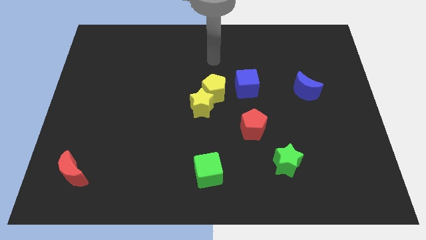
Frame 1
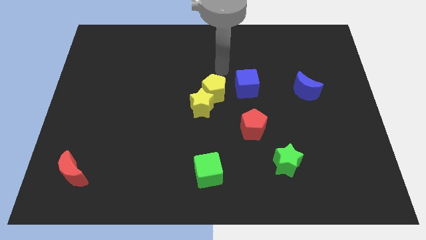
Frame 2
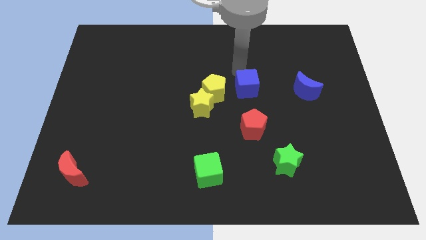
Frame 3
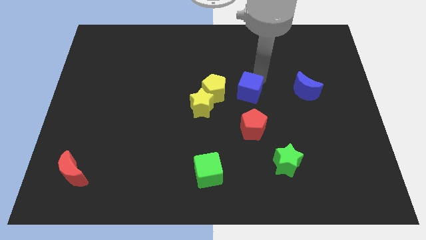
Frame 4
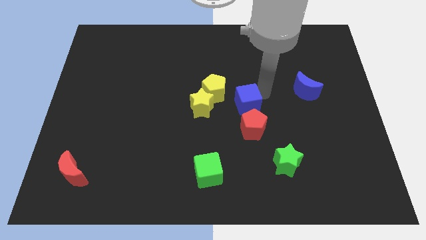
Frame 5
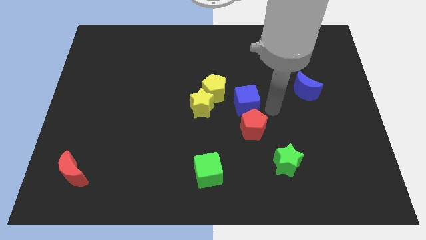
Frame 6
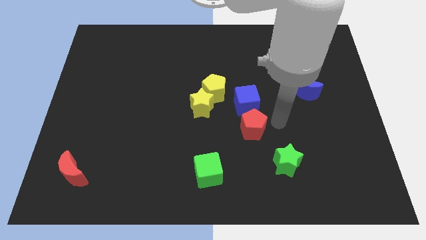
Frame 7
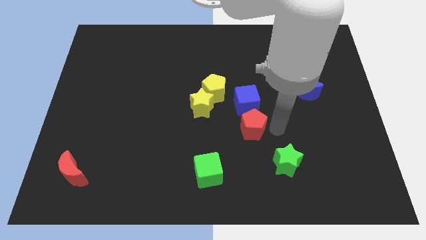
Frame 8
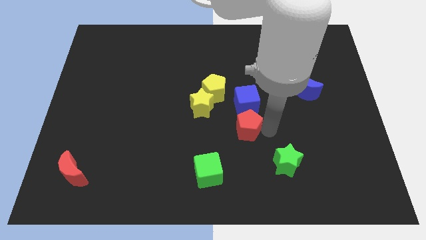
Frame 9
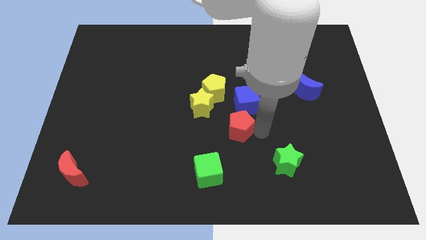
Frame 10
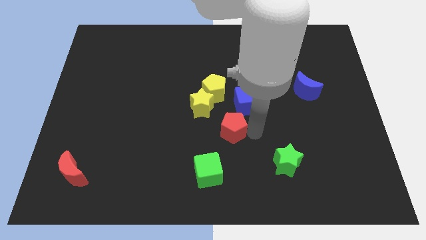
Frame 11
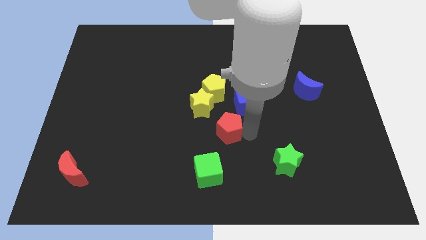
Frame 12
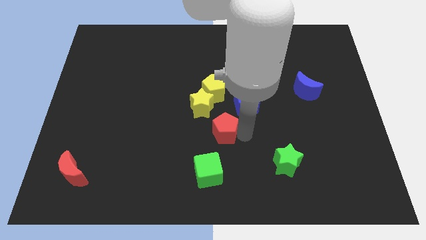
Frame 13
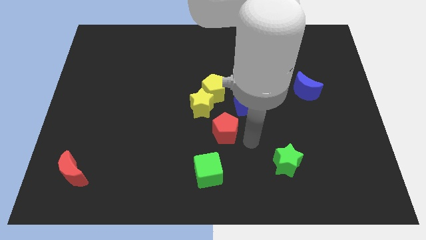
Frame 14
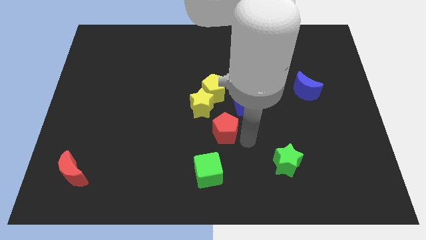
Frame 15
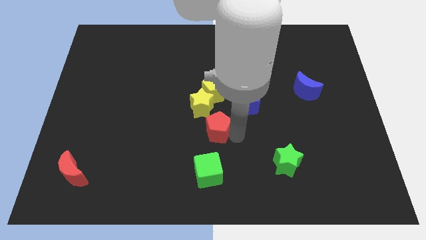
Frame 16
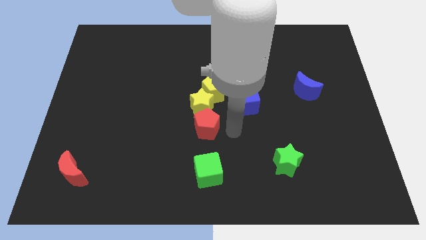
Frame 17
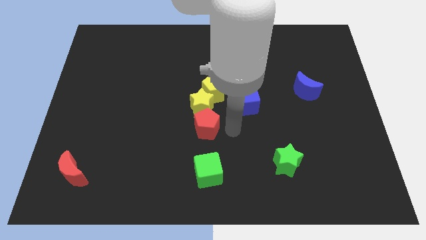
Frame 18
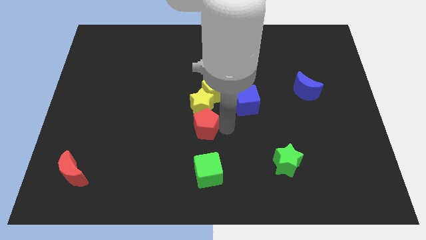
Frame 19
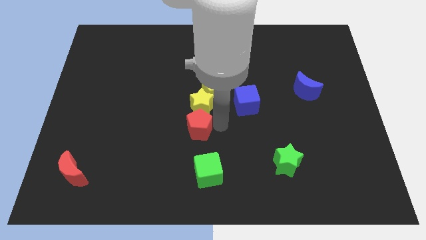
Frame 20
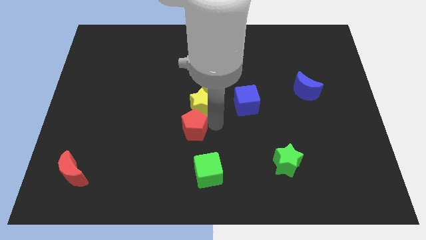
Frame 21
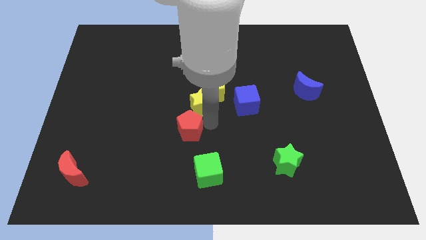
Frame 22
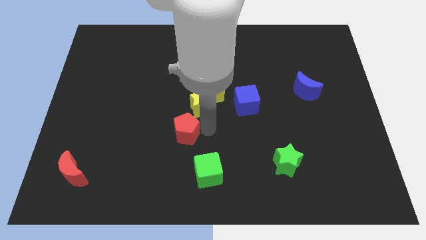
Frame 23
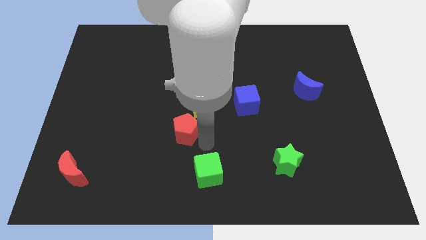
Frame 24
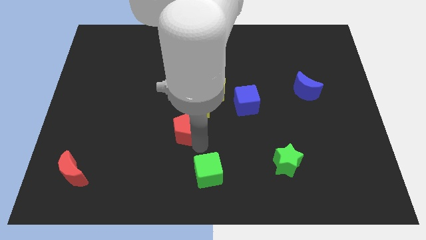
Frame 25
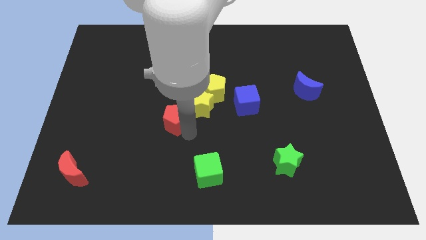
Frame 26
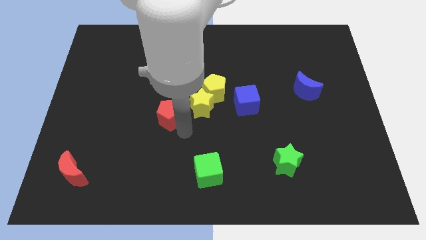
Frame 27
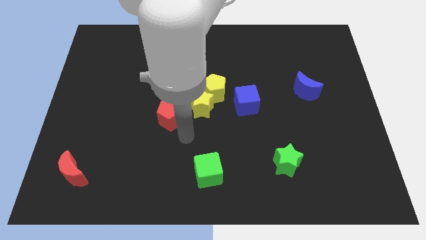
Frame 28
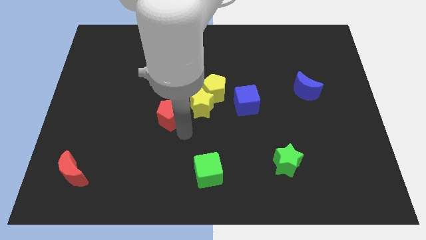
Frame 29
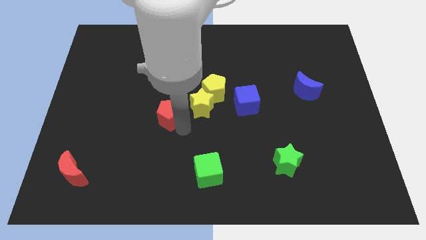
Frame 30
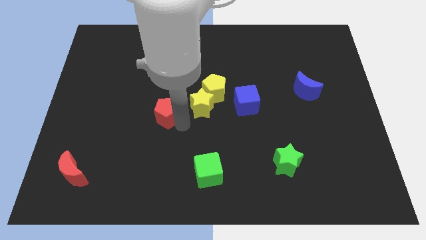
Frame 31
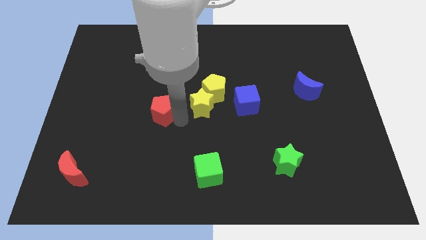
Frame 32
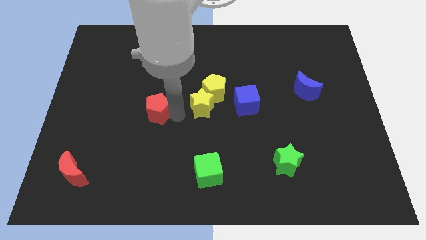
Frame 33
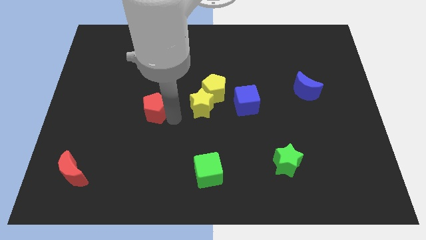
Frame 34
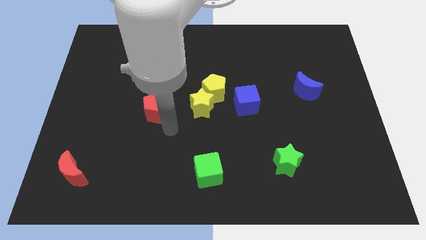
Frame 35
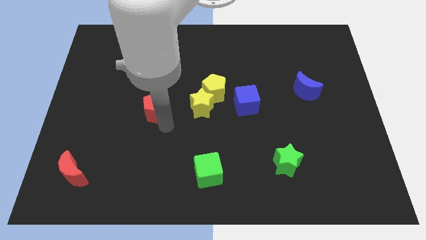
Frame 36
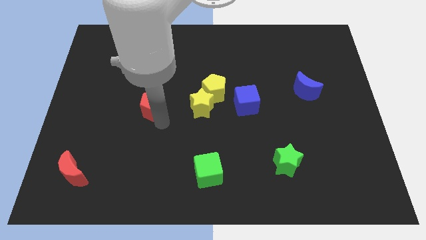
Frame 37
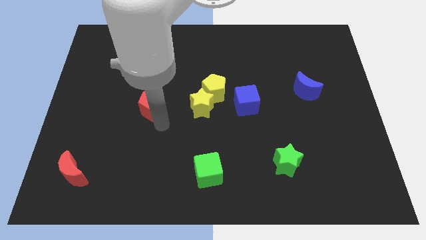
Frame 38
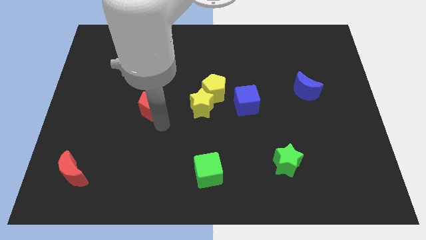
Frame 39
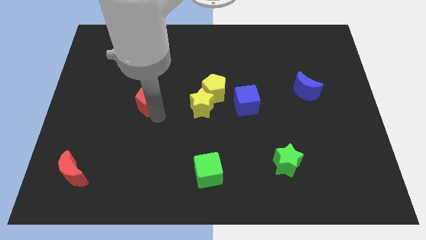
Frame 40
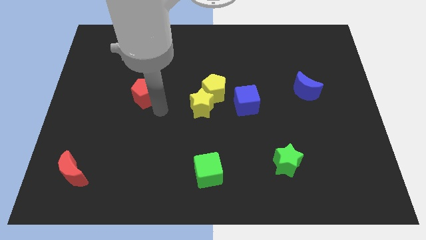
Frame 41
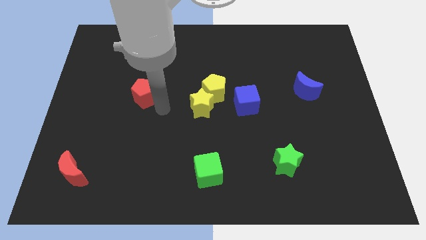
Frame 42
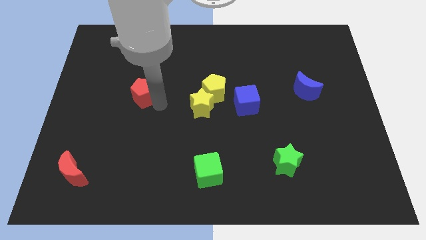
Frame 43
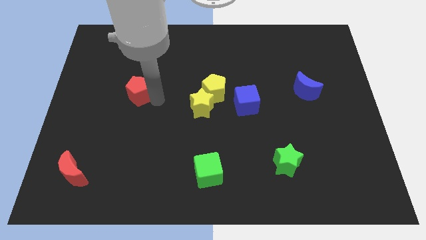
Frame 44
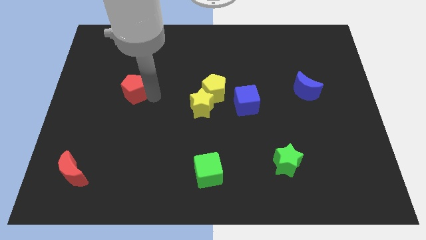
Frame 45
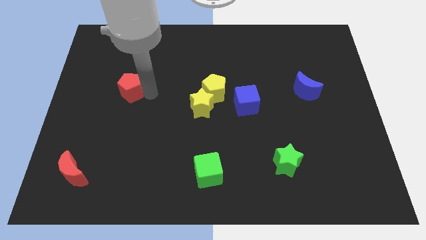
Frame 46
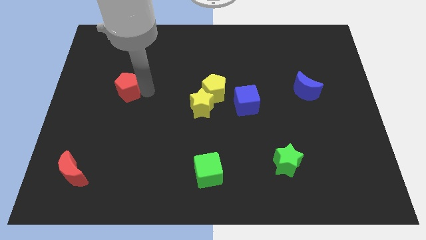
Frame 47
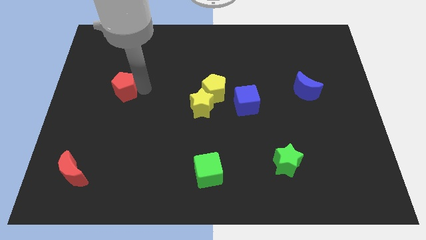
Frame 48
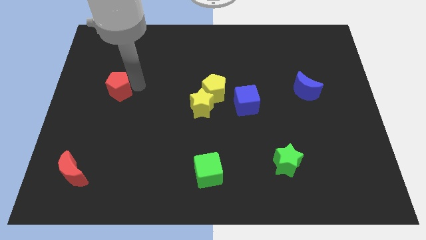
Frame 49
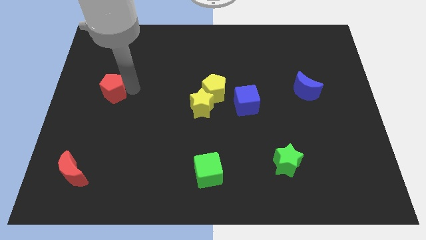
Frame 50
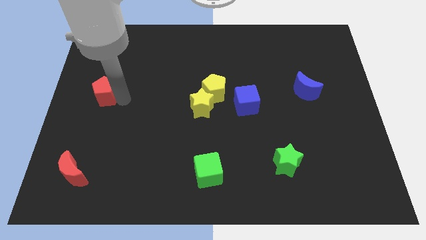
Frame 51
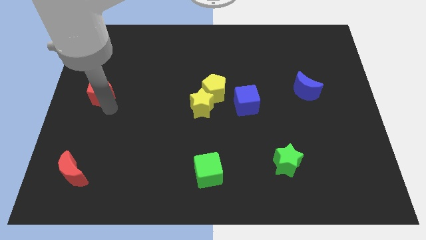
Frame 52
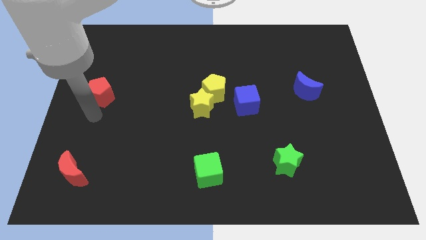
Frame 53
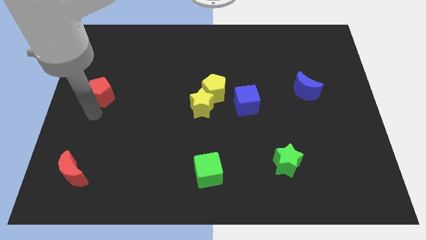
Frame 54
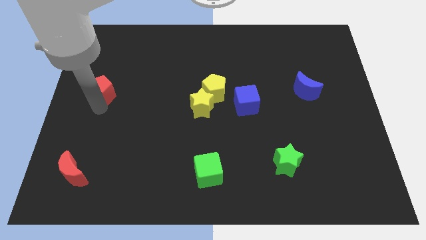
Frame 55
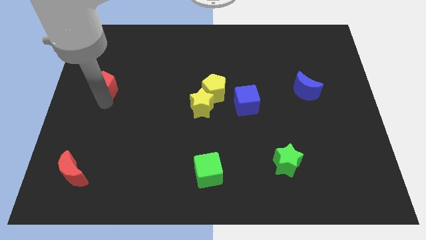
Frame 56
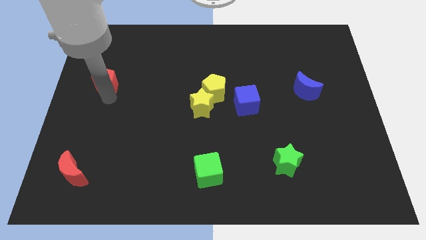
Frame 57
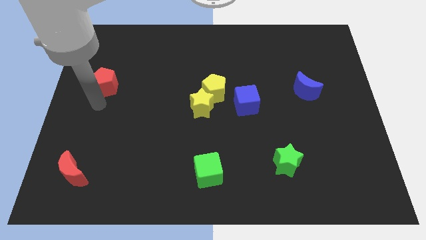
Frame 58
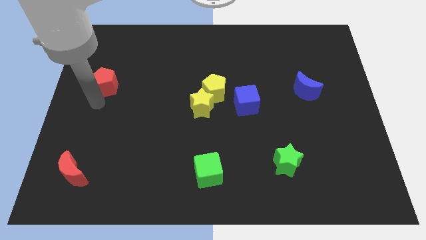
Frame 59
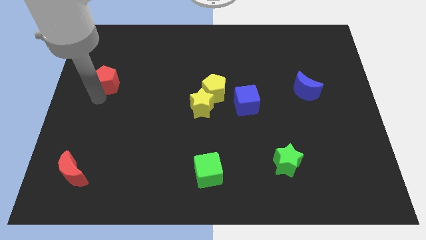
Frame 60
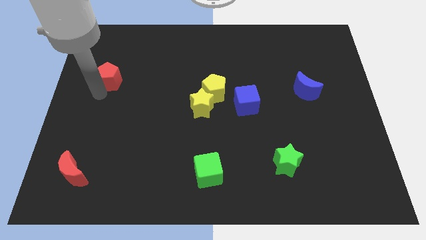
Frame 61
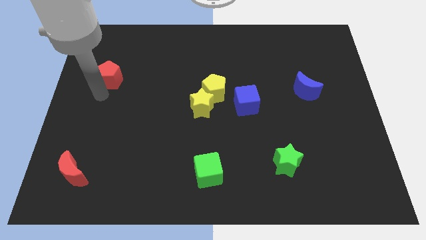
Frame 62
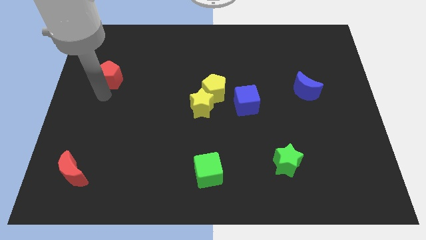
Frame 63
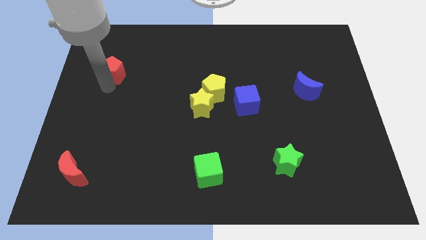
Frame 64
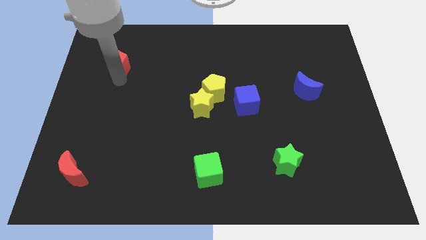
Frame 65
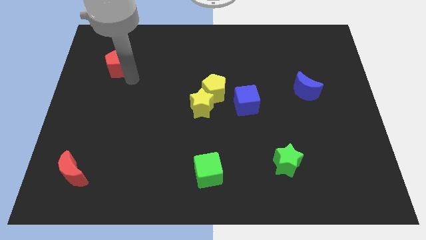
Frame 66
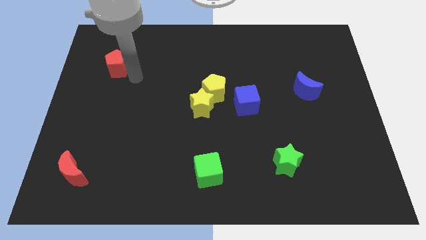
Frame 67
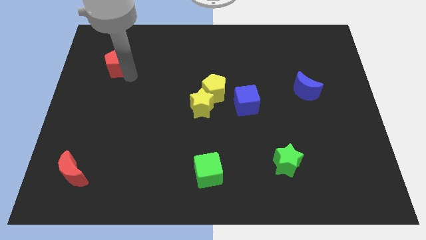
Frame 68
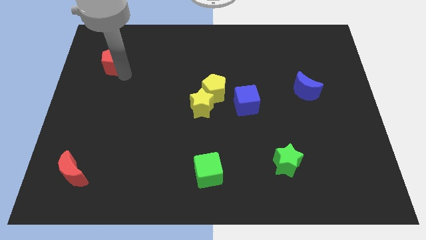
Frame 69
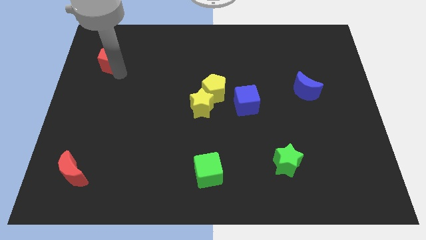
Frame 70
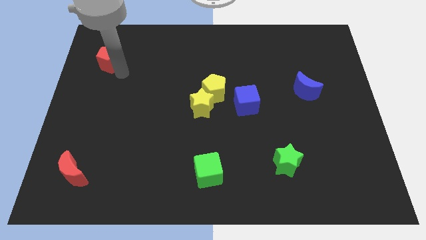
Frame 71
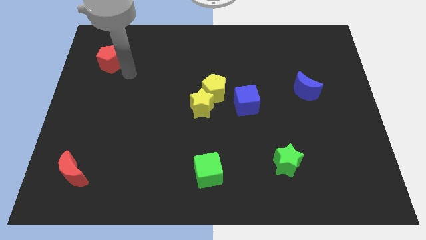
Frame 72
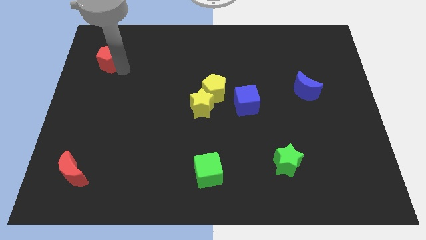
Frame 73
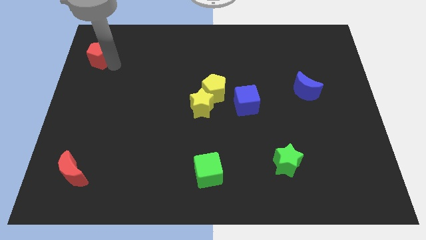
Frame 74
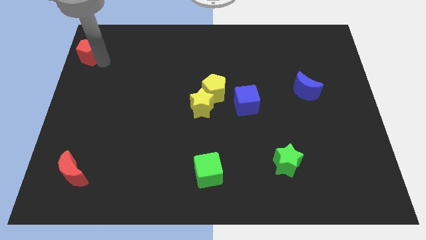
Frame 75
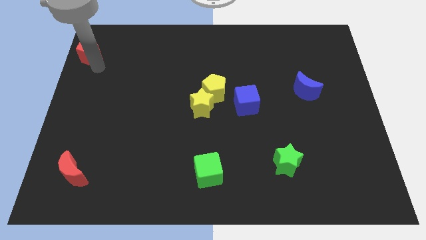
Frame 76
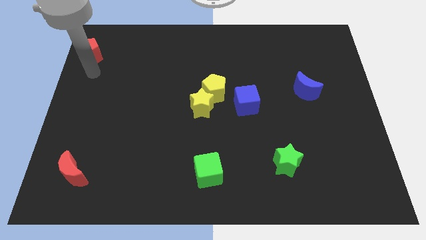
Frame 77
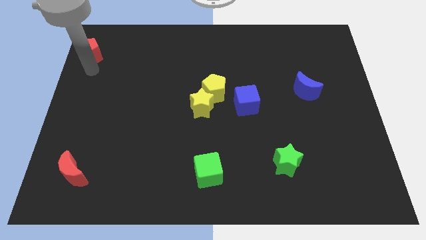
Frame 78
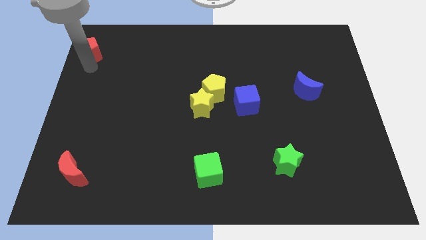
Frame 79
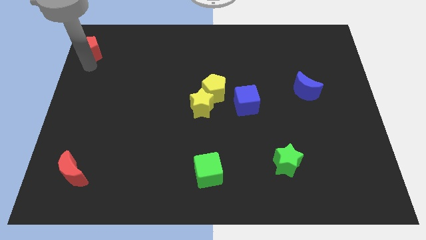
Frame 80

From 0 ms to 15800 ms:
move the red pentagon to the top left

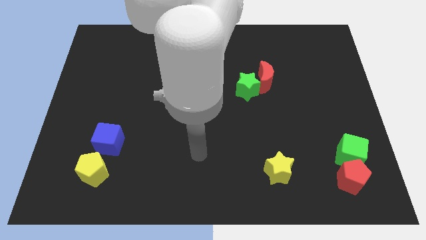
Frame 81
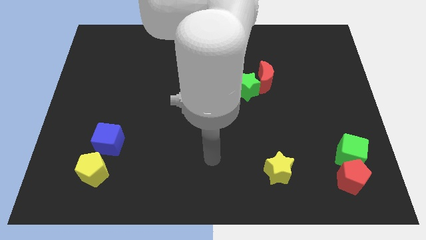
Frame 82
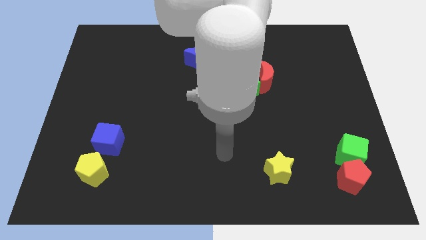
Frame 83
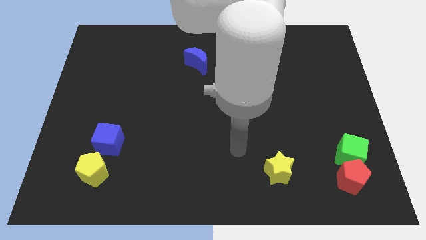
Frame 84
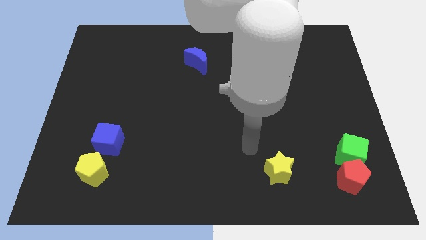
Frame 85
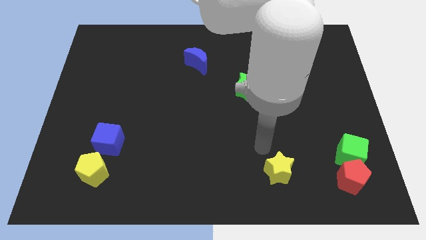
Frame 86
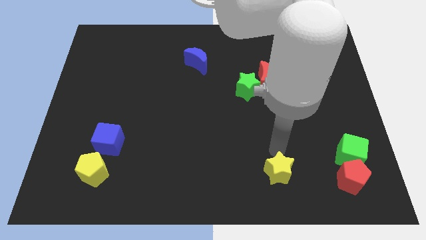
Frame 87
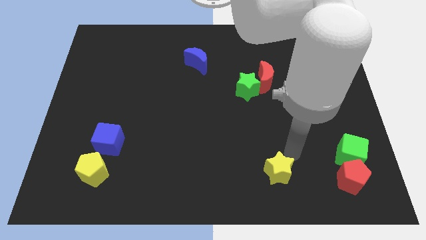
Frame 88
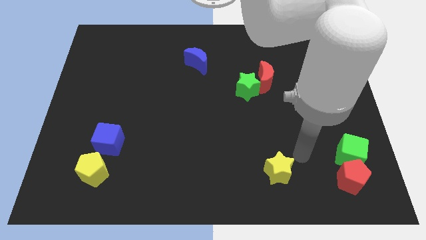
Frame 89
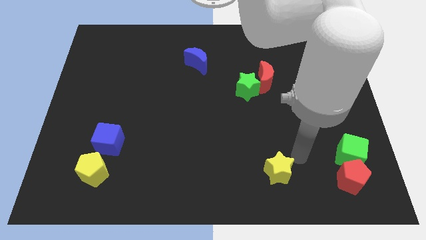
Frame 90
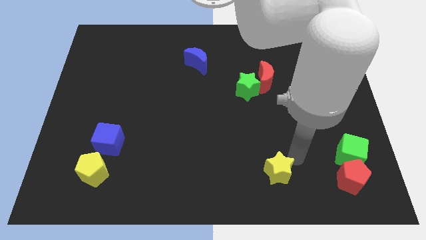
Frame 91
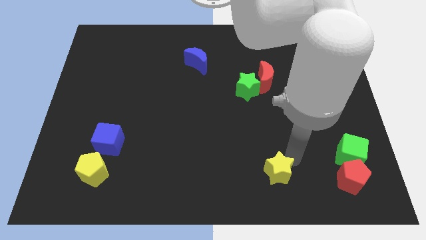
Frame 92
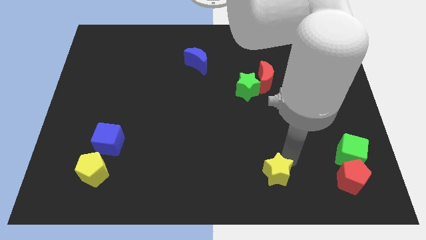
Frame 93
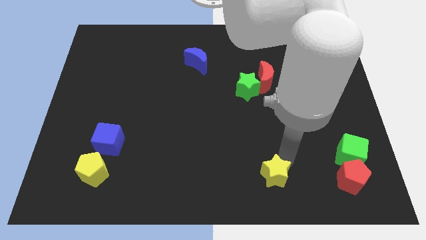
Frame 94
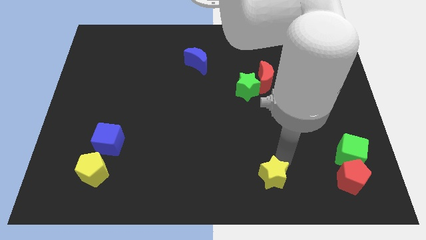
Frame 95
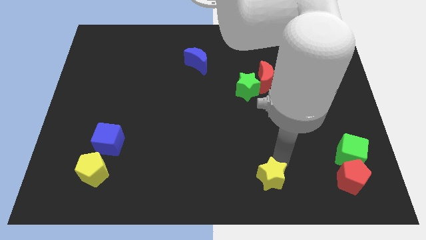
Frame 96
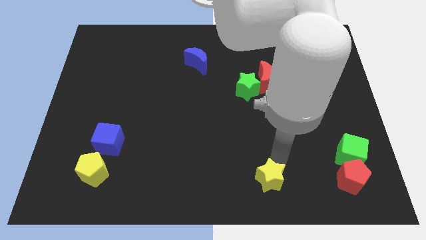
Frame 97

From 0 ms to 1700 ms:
slide the yellow star to the bottom
